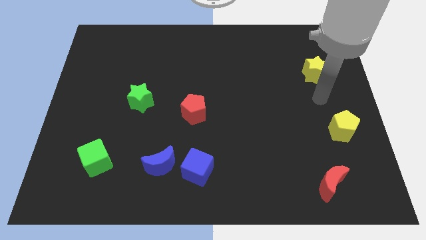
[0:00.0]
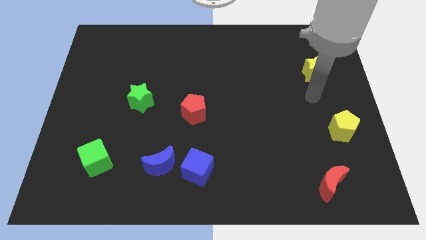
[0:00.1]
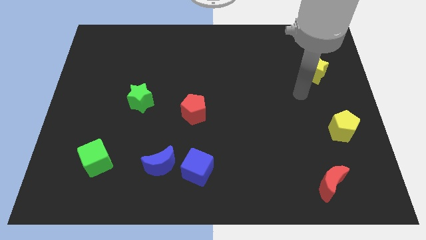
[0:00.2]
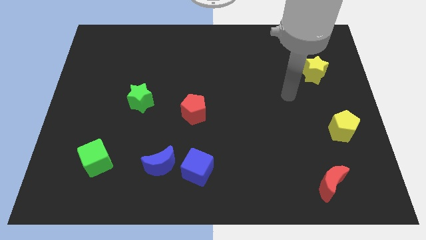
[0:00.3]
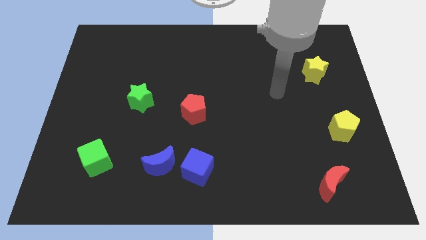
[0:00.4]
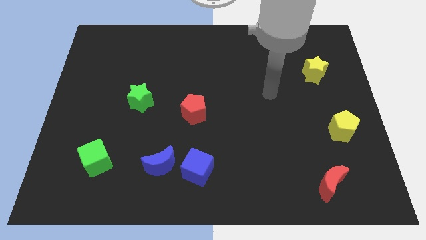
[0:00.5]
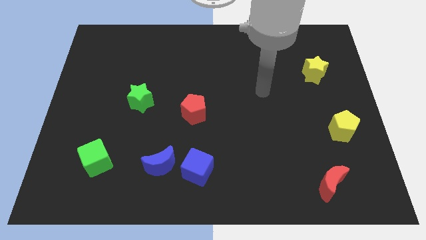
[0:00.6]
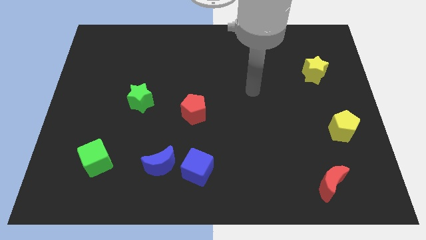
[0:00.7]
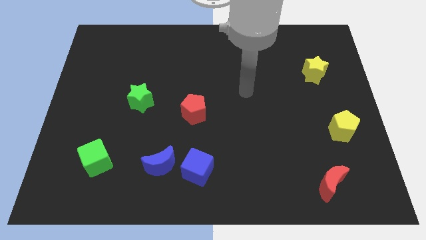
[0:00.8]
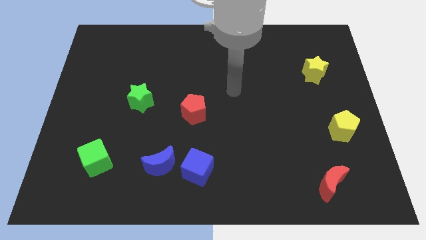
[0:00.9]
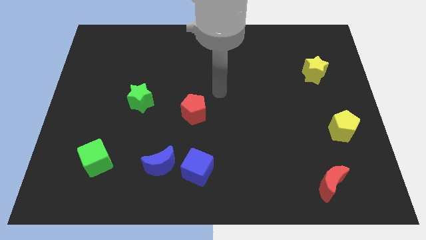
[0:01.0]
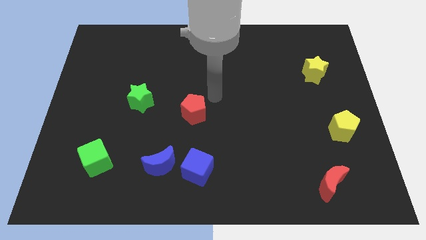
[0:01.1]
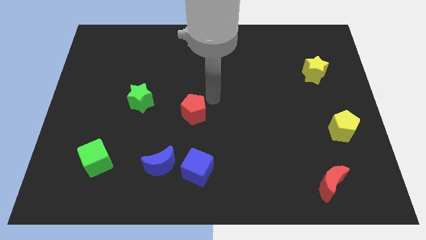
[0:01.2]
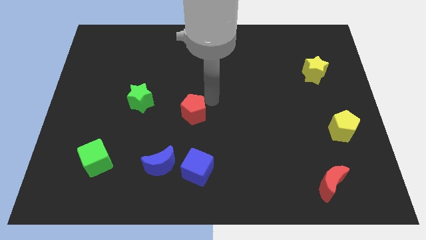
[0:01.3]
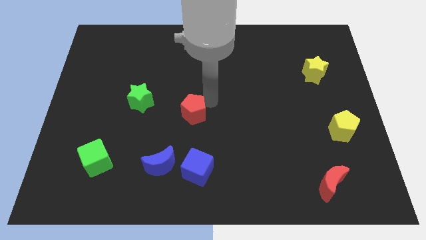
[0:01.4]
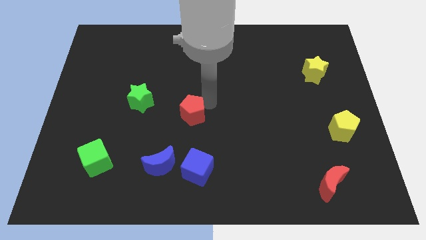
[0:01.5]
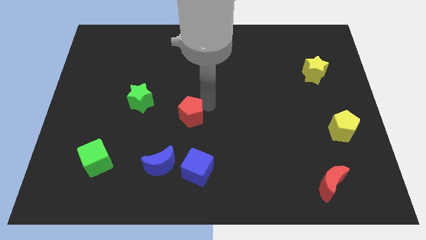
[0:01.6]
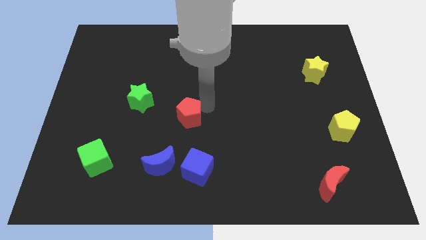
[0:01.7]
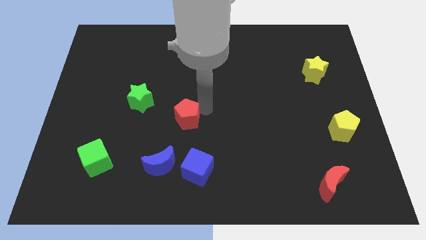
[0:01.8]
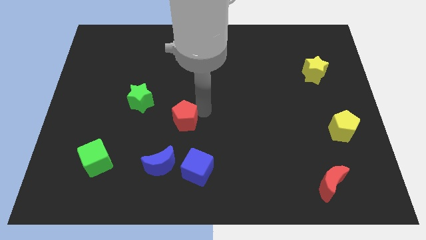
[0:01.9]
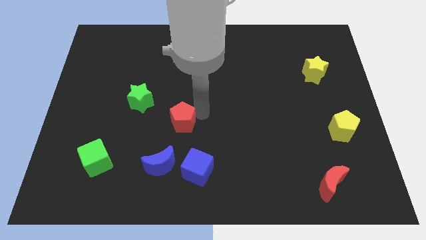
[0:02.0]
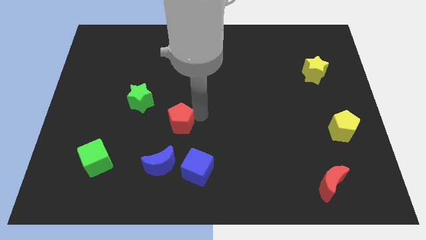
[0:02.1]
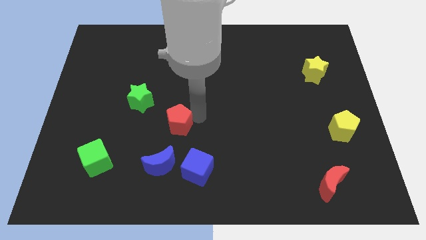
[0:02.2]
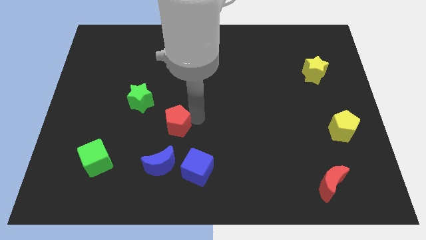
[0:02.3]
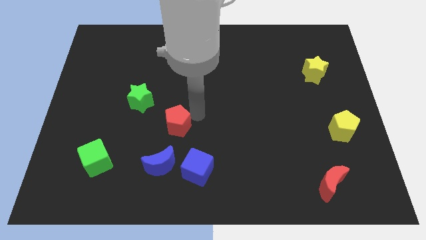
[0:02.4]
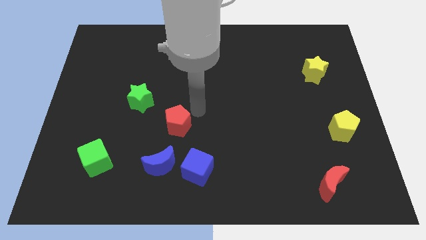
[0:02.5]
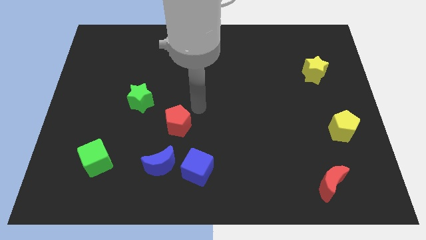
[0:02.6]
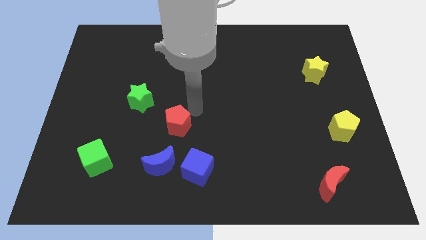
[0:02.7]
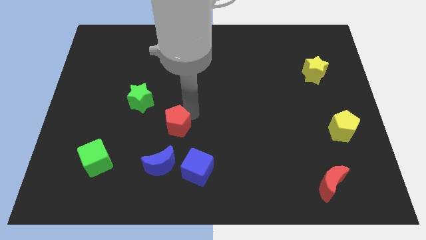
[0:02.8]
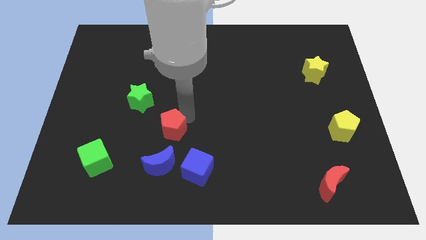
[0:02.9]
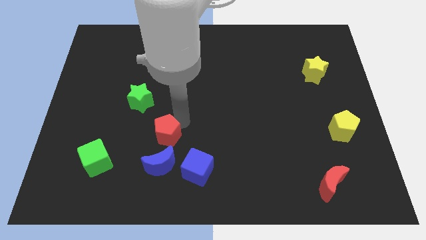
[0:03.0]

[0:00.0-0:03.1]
slightly push the red pentagon downwards and left

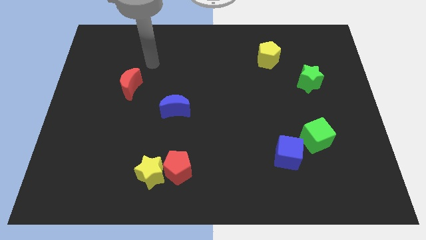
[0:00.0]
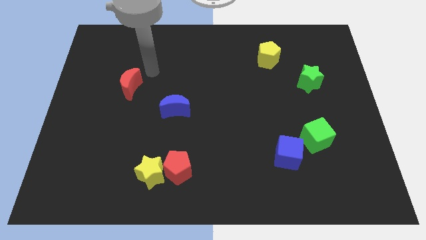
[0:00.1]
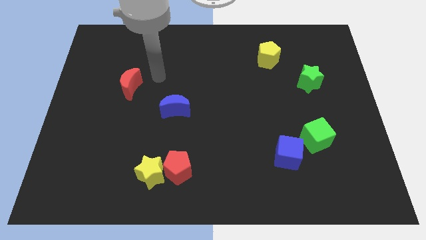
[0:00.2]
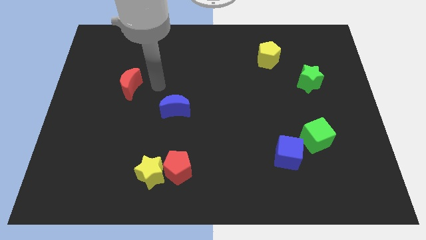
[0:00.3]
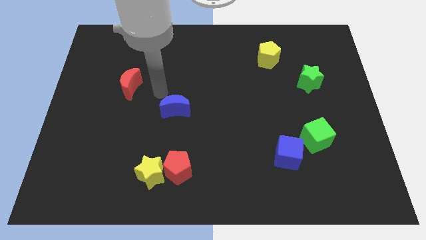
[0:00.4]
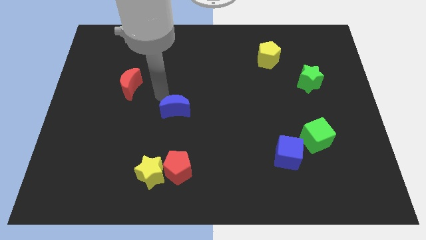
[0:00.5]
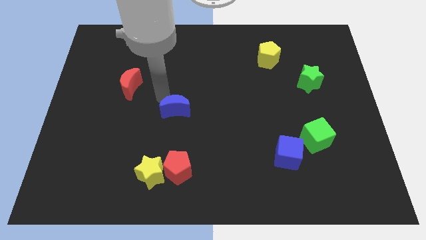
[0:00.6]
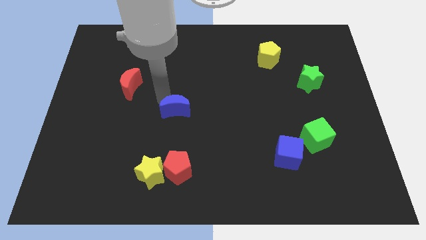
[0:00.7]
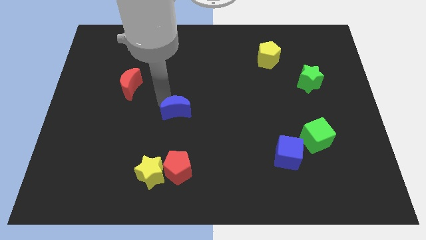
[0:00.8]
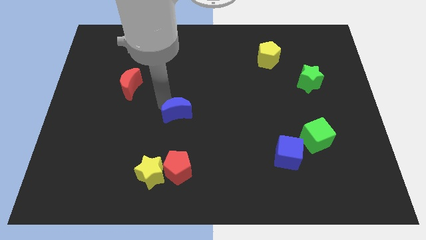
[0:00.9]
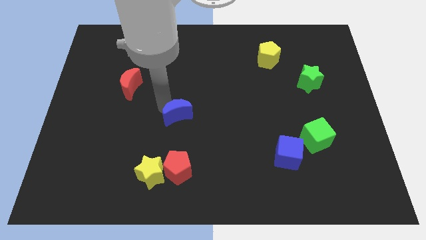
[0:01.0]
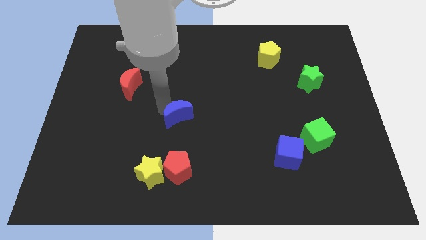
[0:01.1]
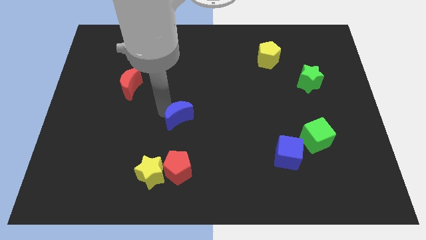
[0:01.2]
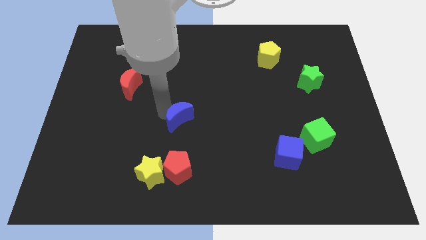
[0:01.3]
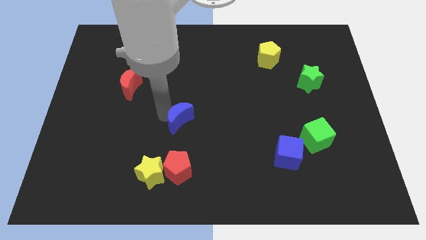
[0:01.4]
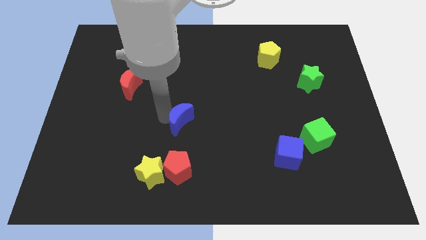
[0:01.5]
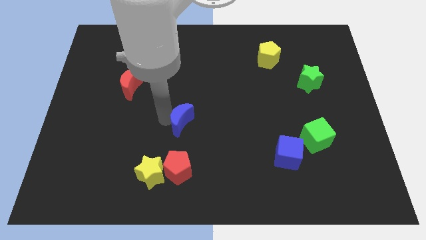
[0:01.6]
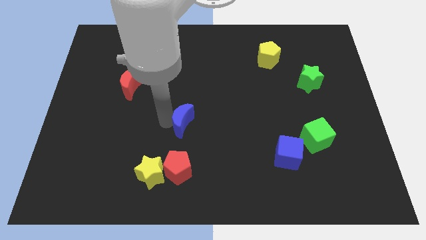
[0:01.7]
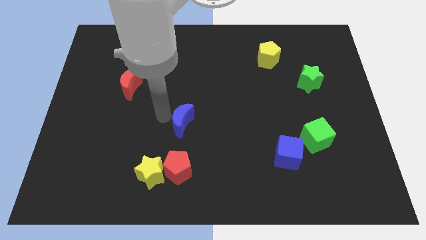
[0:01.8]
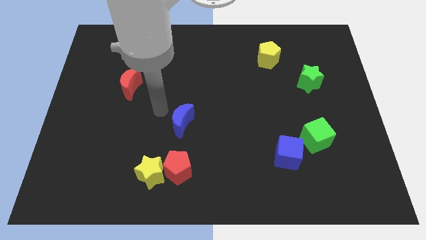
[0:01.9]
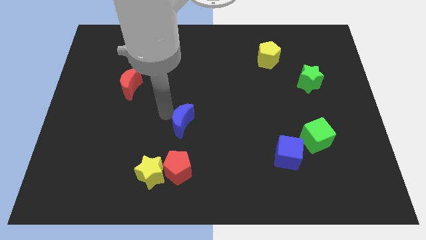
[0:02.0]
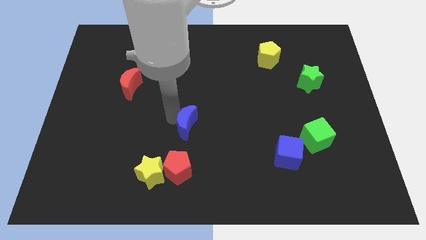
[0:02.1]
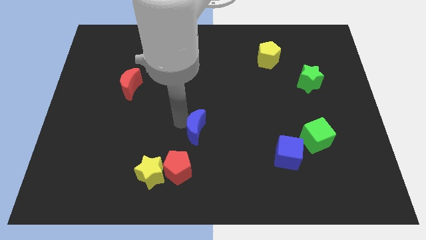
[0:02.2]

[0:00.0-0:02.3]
move the blue moon a little bit diagonally down and right

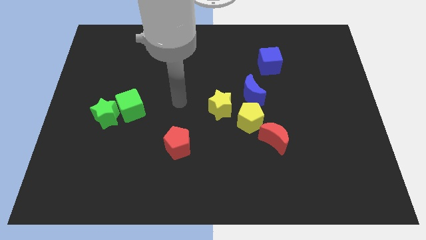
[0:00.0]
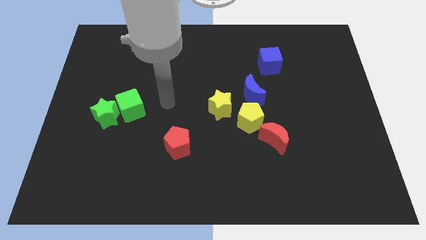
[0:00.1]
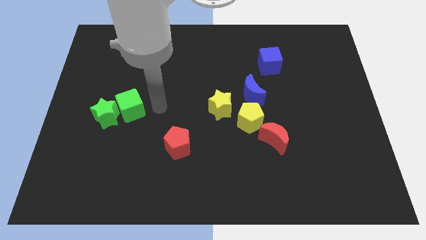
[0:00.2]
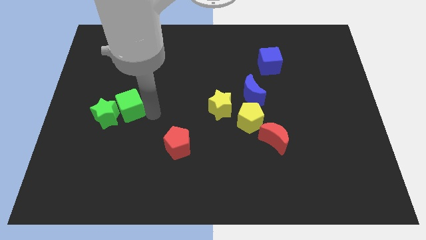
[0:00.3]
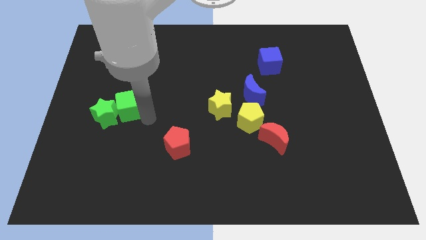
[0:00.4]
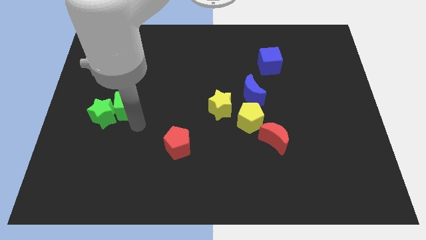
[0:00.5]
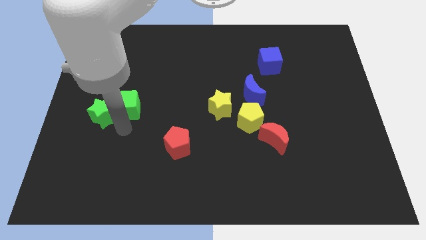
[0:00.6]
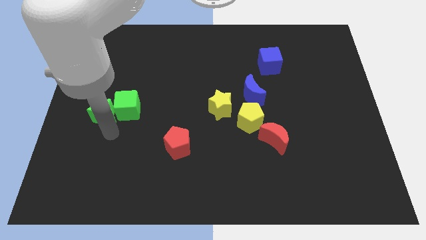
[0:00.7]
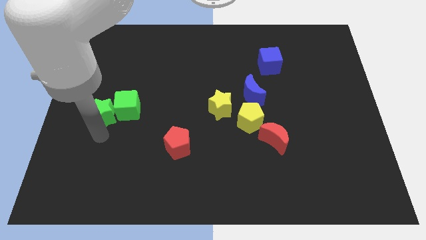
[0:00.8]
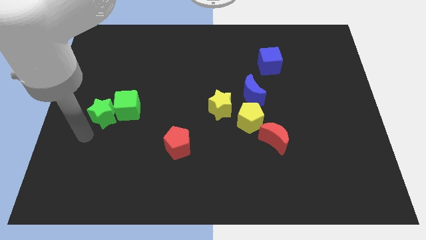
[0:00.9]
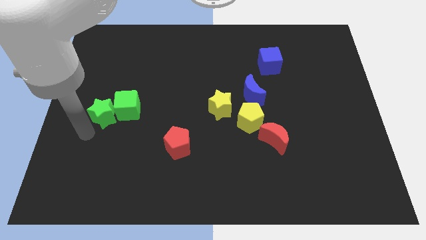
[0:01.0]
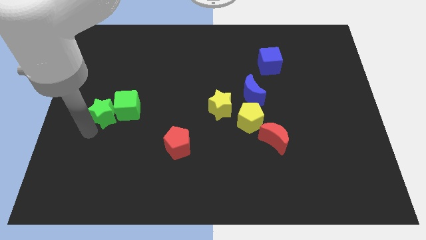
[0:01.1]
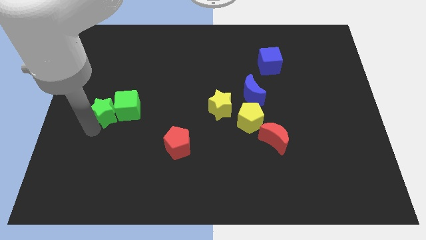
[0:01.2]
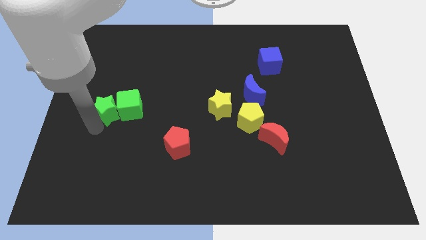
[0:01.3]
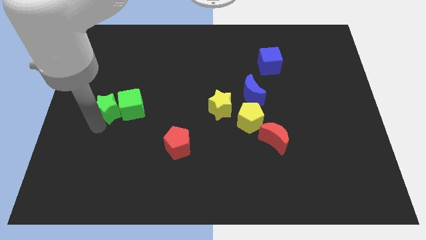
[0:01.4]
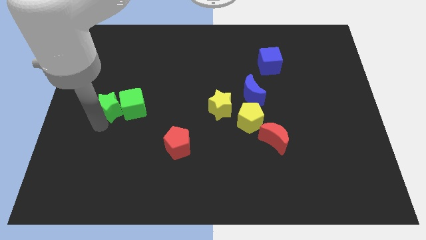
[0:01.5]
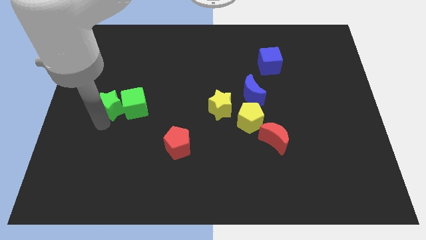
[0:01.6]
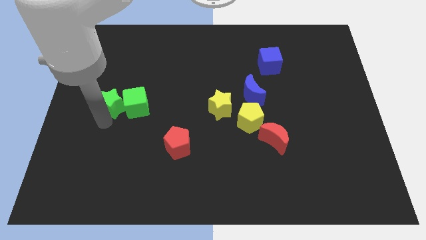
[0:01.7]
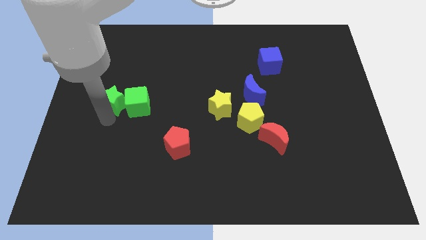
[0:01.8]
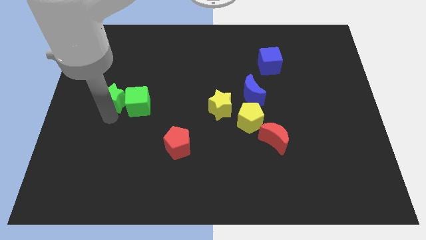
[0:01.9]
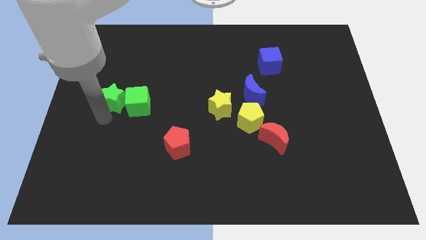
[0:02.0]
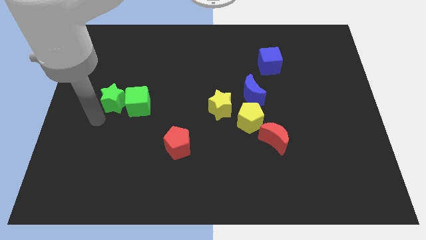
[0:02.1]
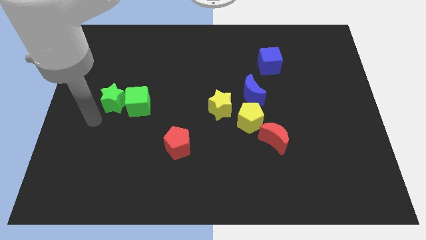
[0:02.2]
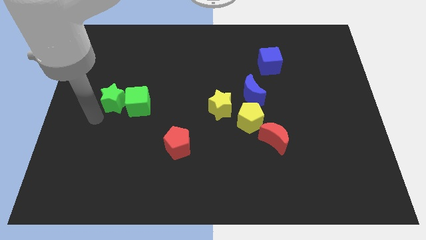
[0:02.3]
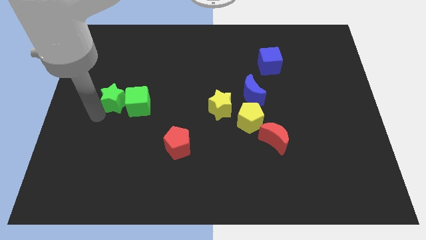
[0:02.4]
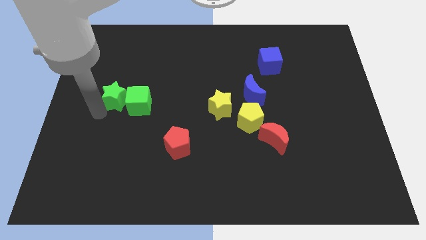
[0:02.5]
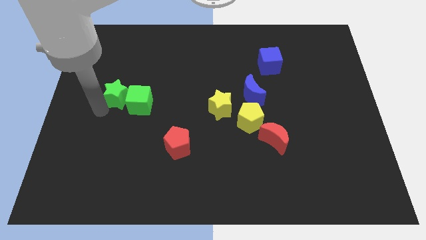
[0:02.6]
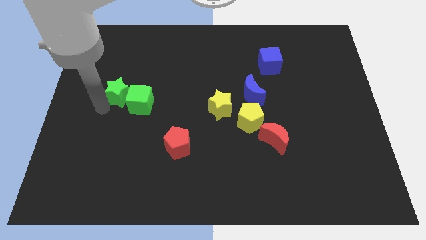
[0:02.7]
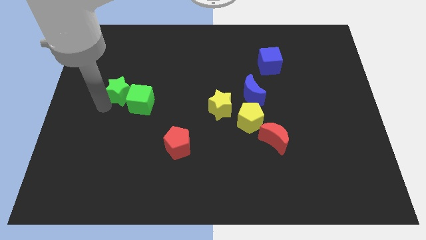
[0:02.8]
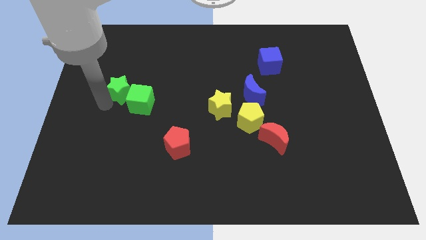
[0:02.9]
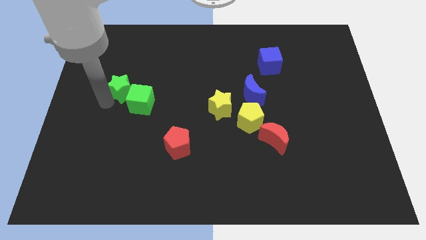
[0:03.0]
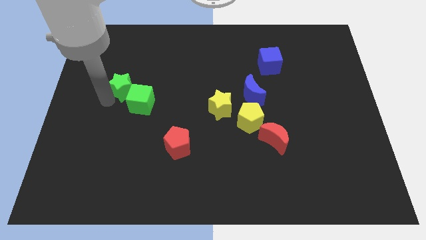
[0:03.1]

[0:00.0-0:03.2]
move the green star up and to the right diagonally a little
